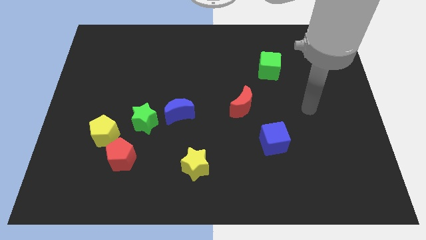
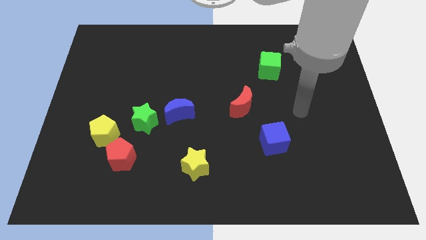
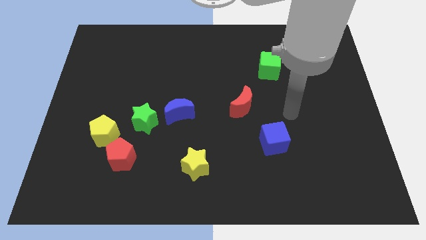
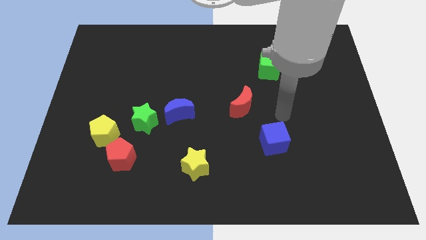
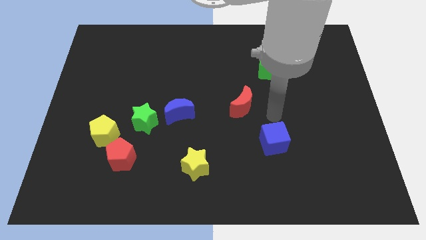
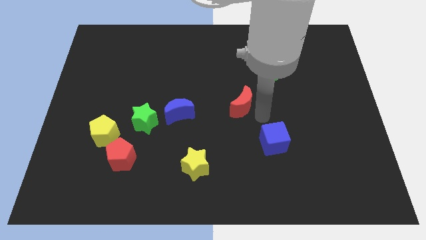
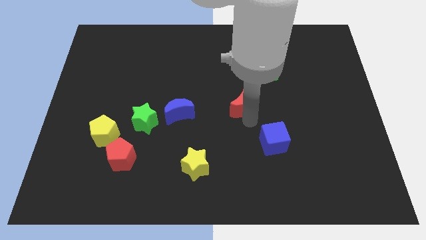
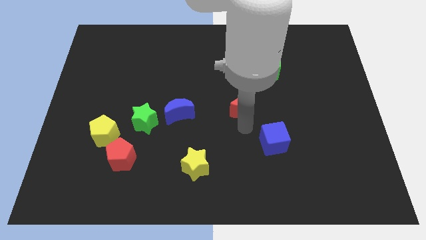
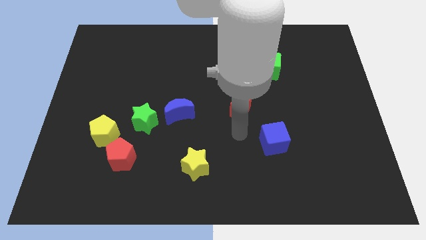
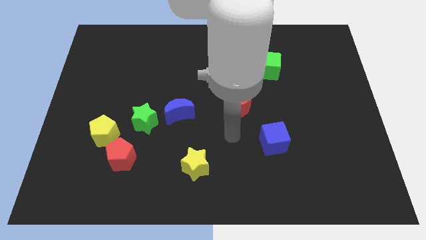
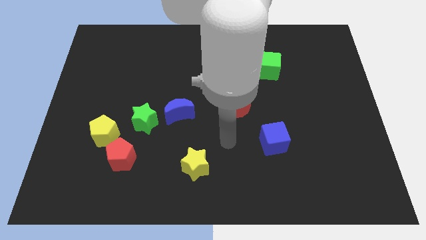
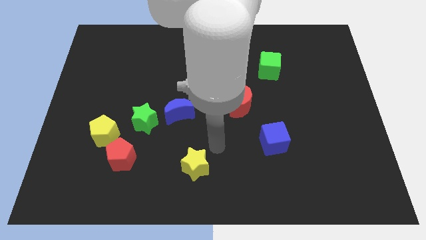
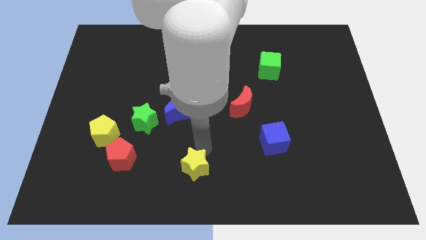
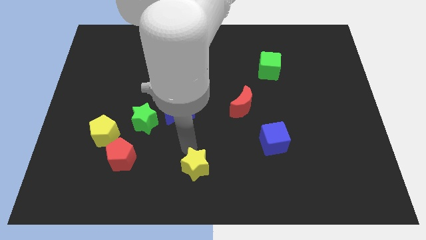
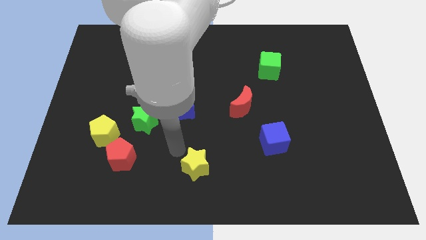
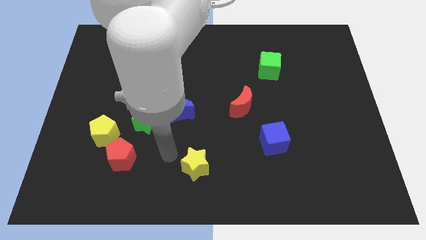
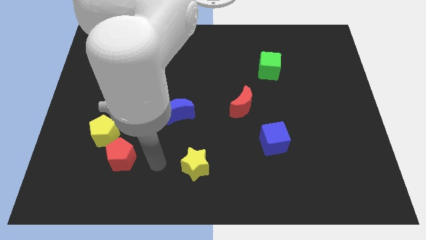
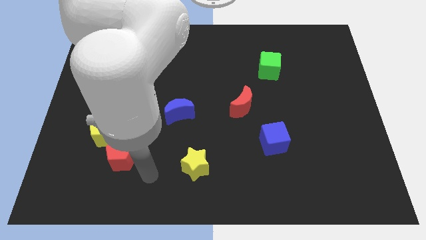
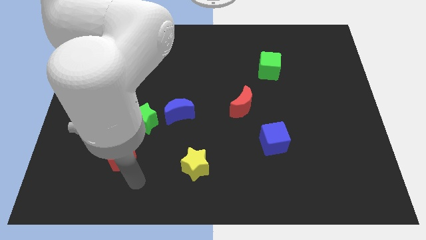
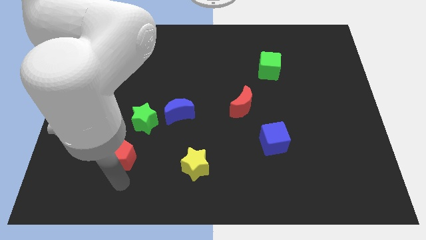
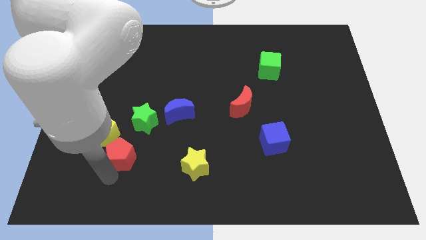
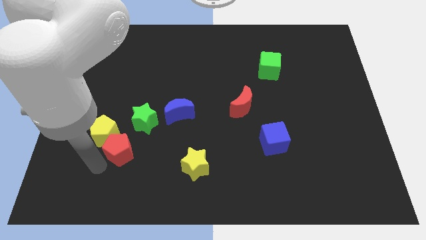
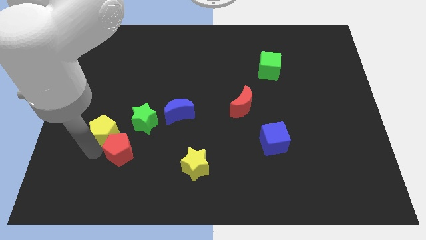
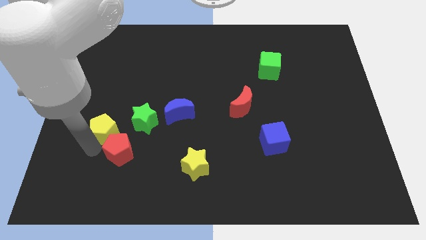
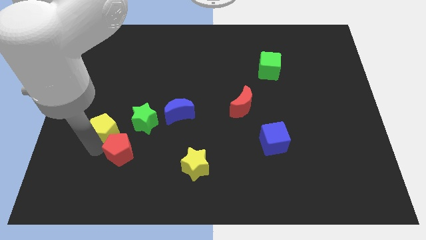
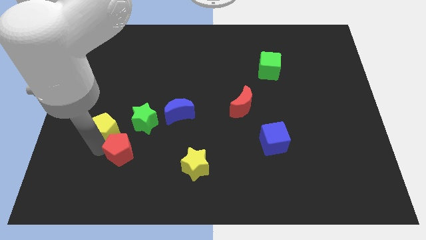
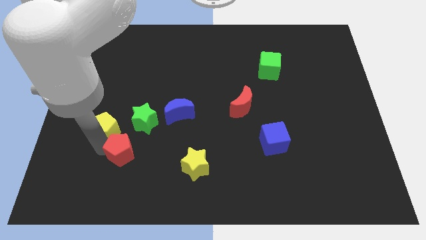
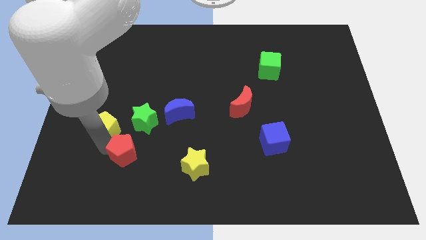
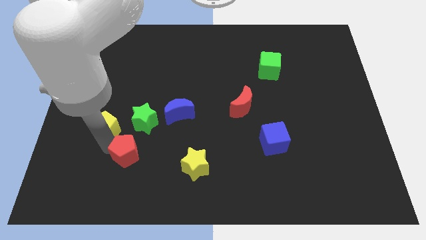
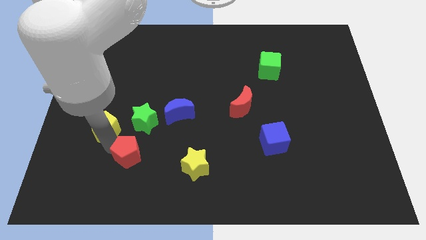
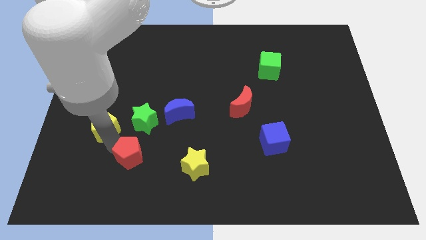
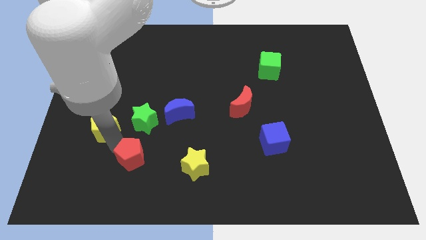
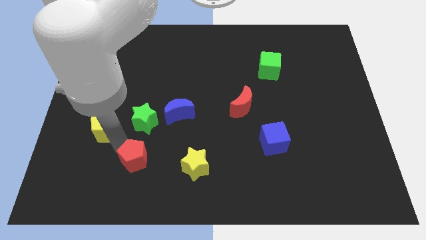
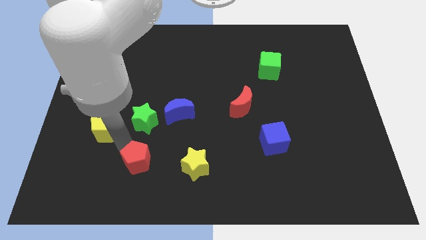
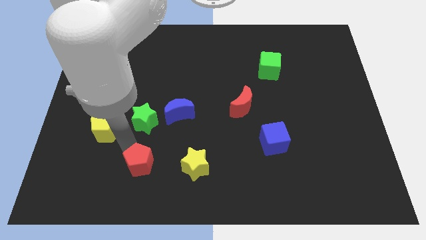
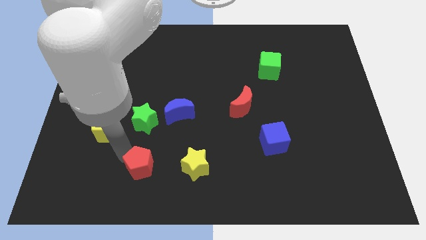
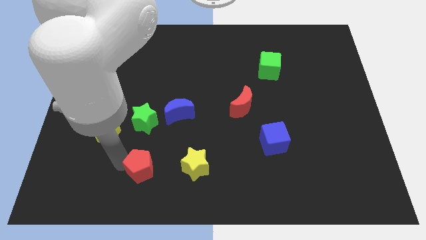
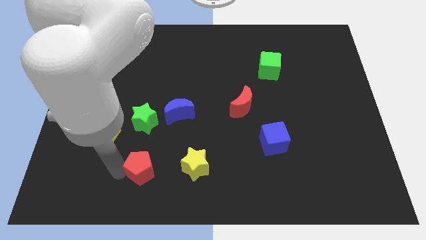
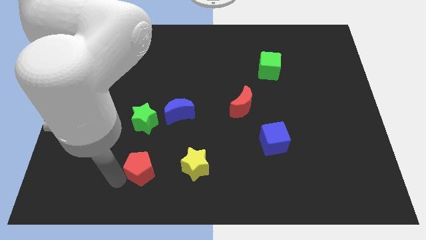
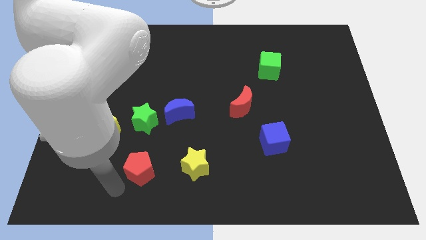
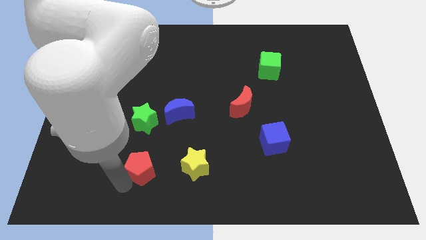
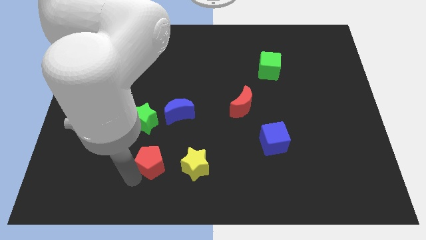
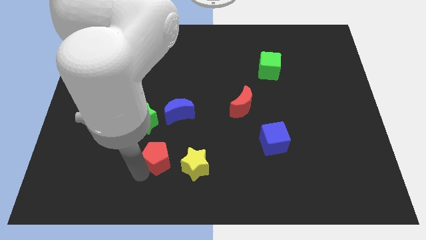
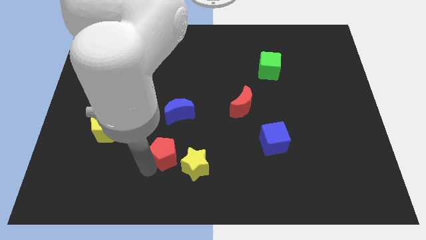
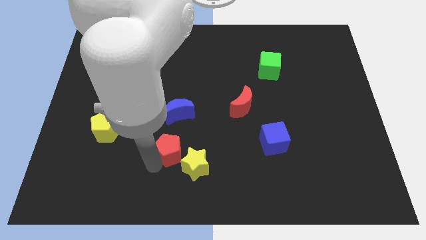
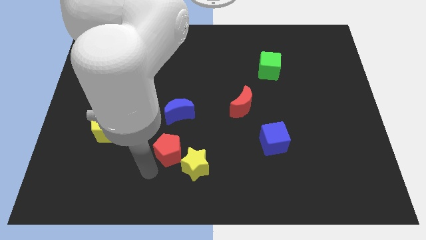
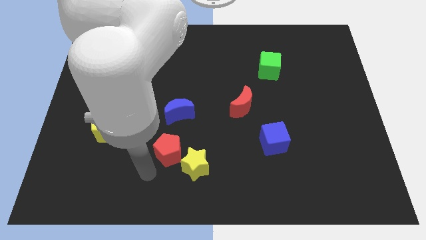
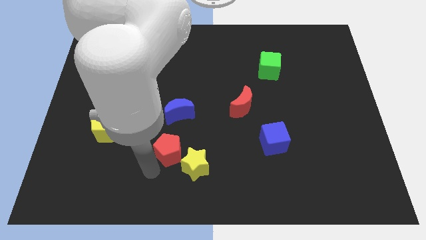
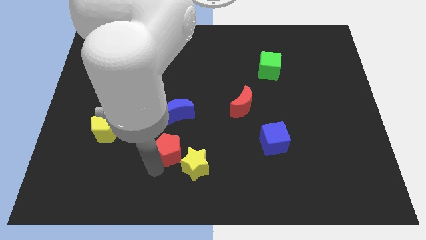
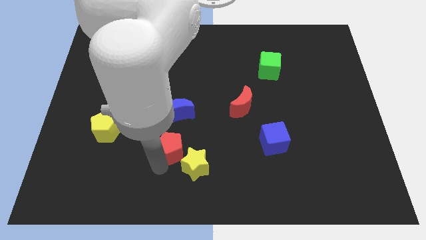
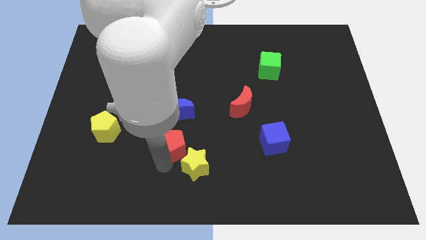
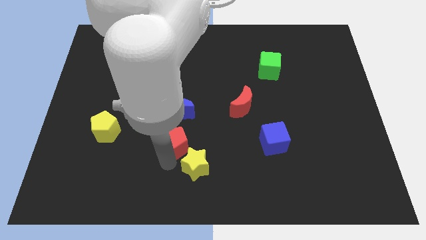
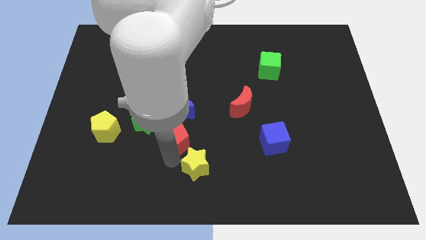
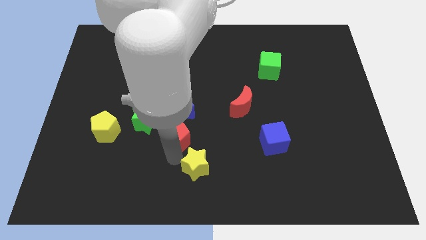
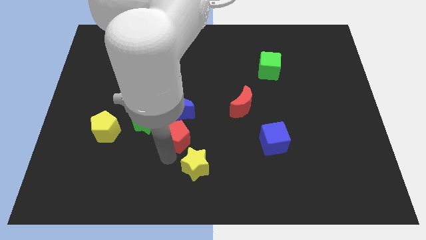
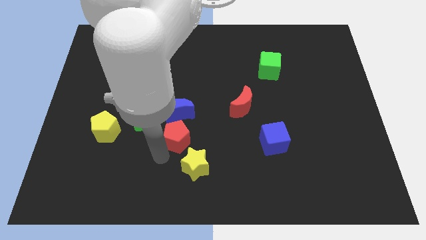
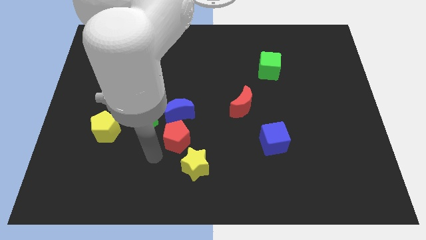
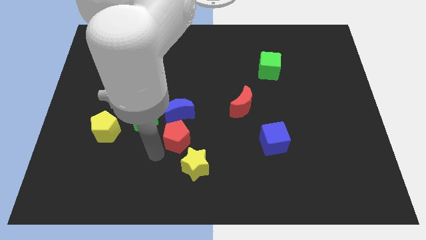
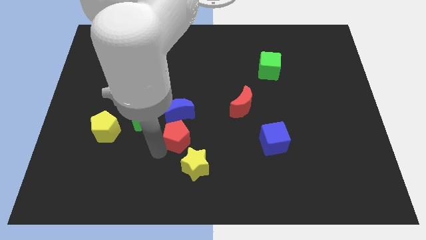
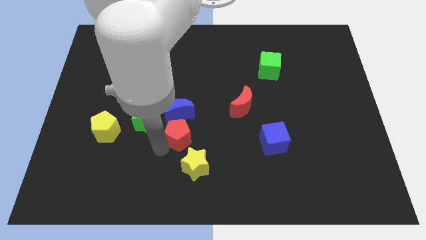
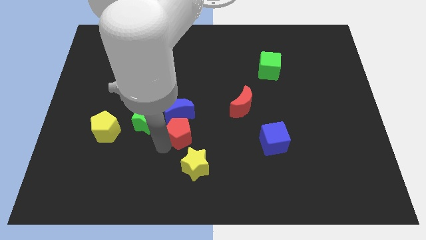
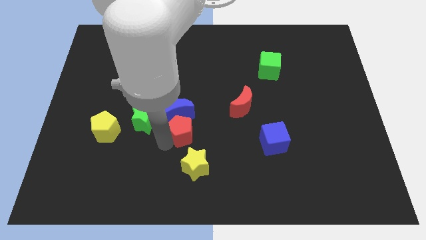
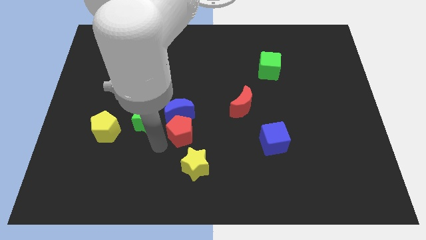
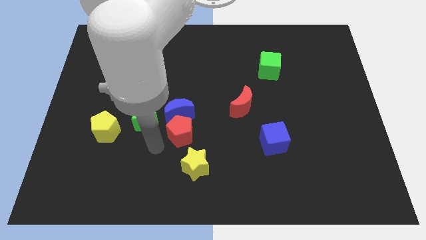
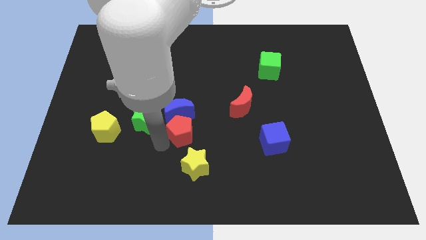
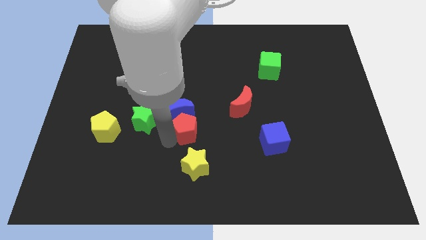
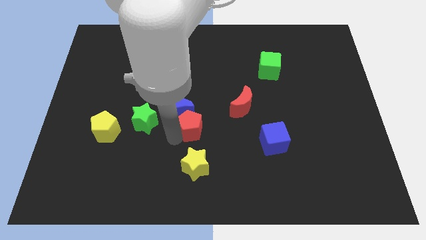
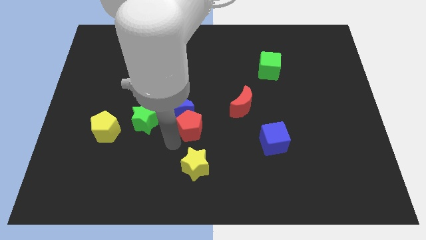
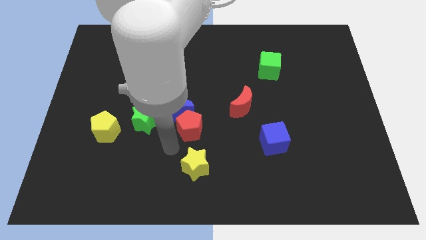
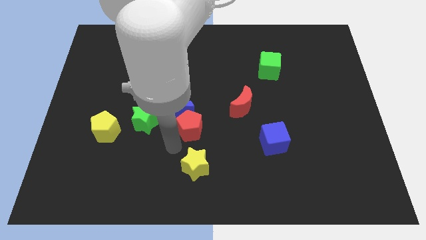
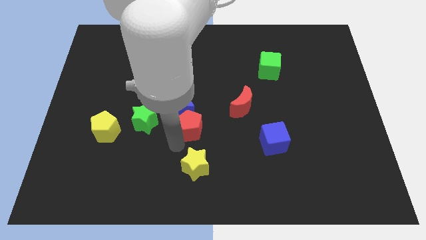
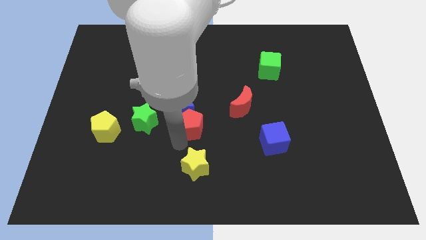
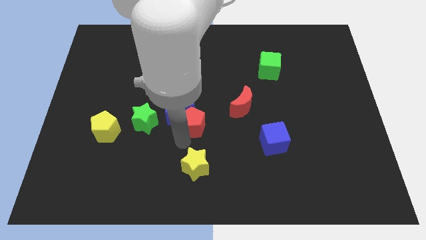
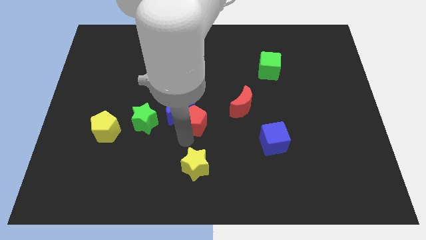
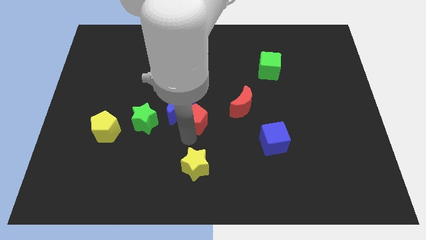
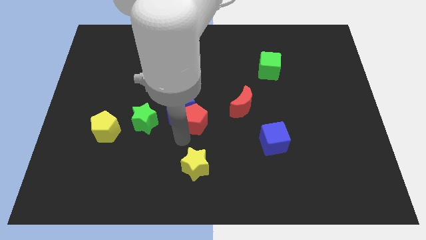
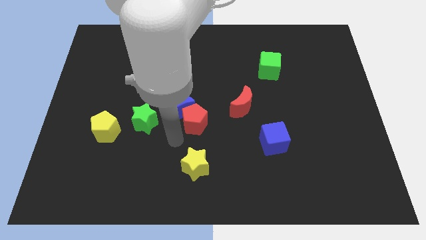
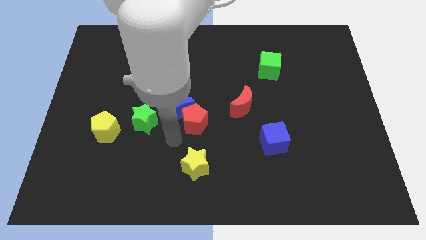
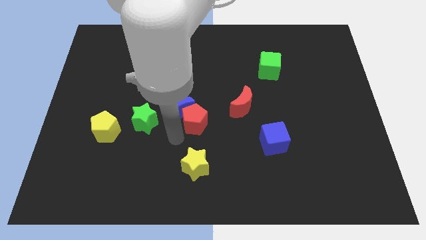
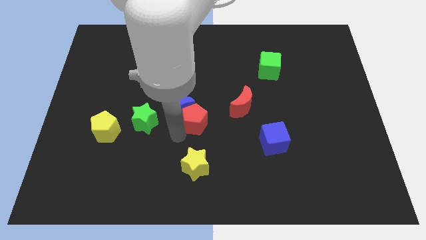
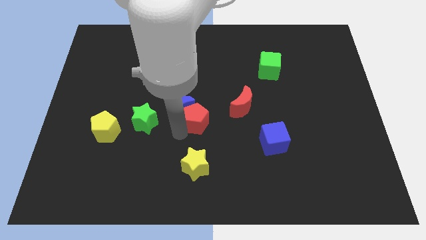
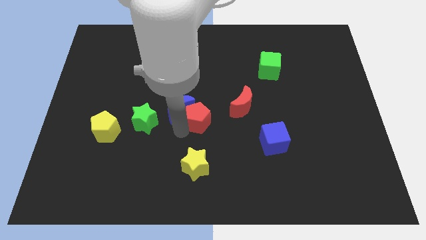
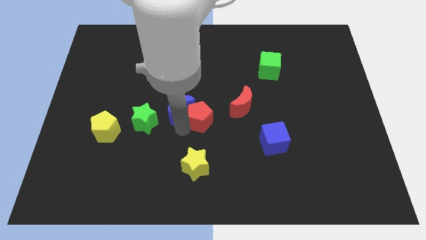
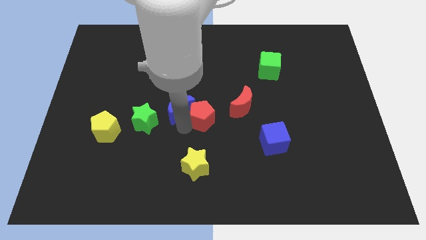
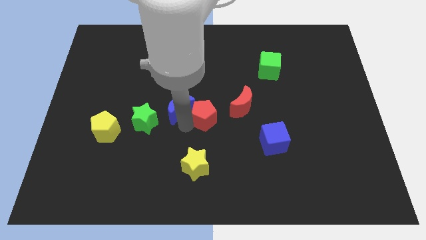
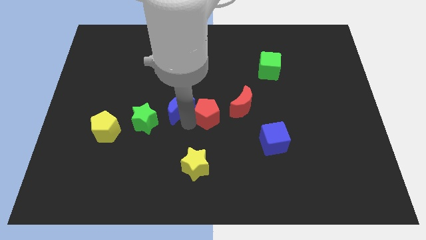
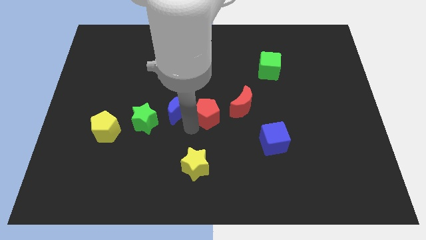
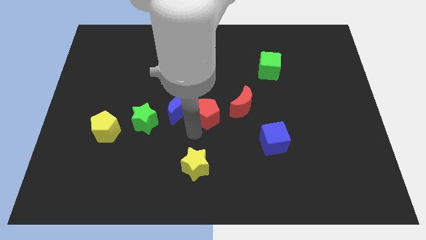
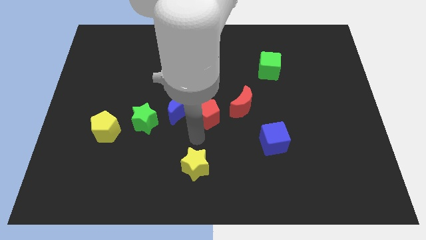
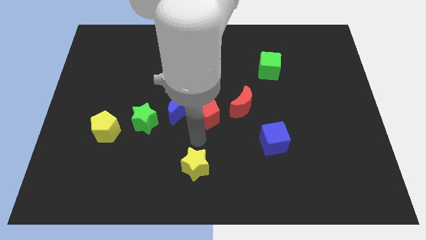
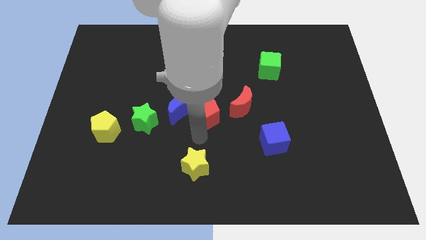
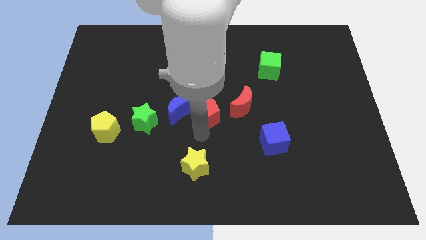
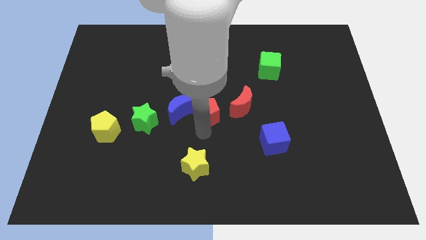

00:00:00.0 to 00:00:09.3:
move the red pentagon upwards and to the right diagonally
